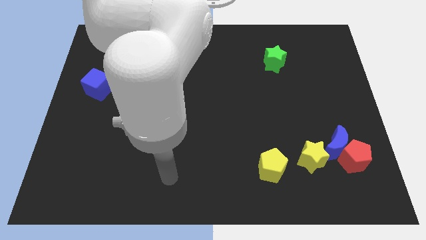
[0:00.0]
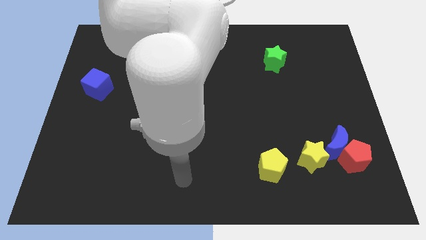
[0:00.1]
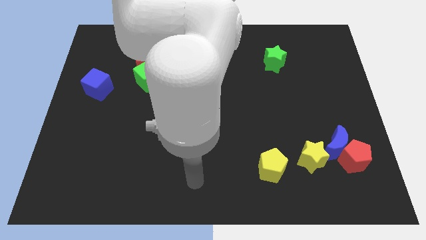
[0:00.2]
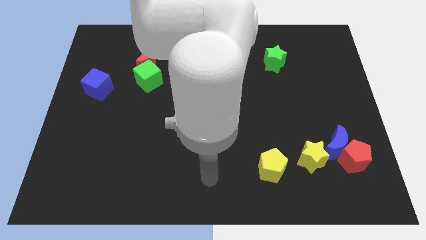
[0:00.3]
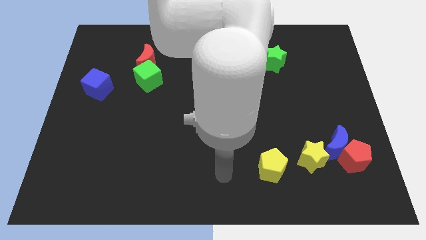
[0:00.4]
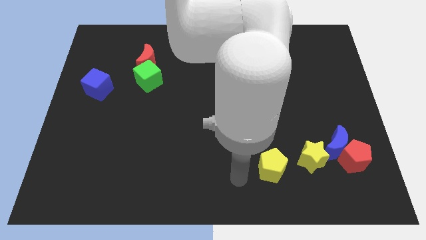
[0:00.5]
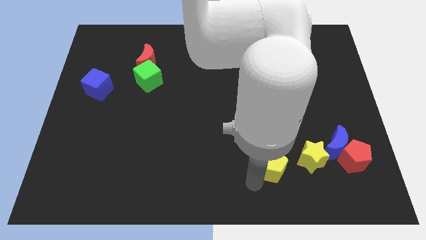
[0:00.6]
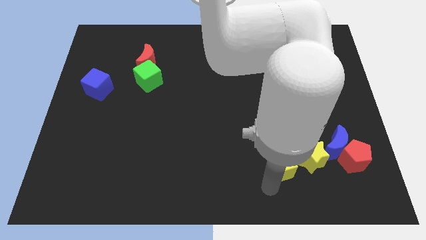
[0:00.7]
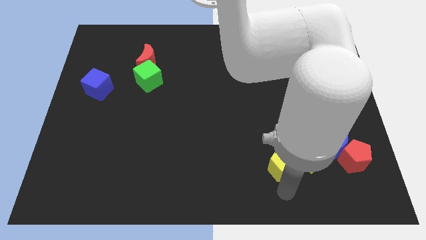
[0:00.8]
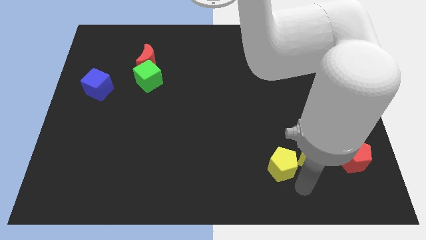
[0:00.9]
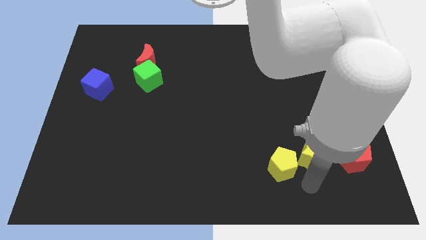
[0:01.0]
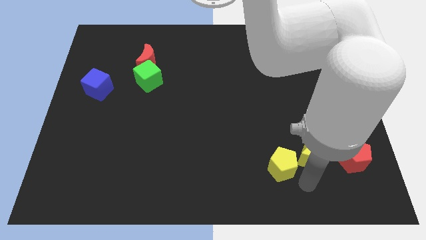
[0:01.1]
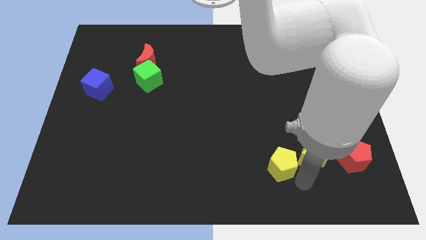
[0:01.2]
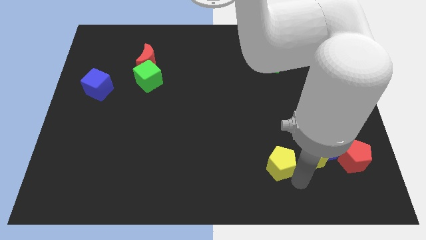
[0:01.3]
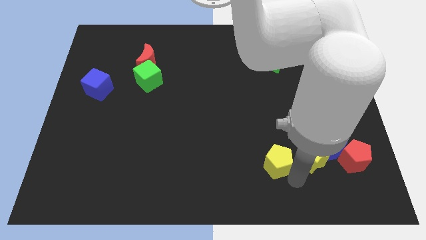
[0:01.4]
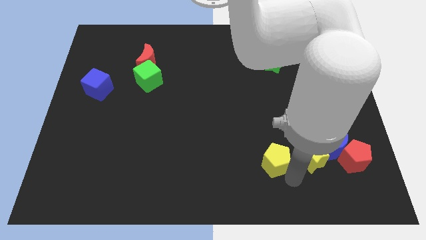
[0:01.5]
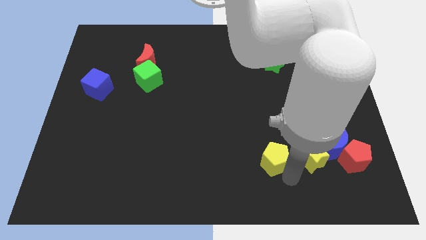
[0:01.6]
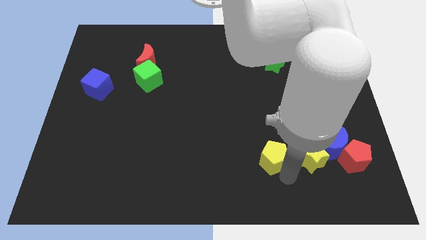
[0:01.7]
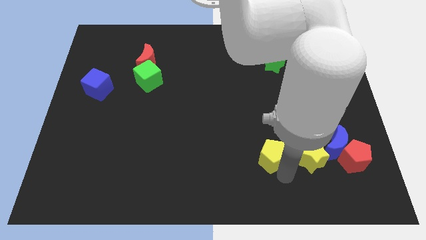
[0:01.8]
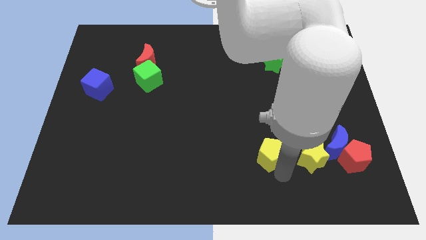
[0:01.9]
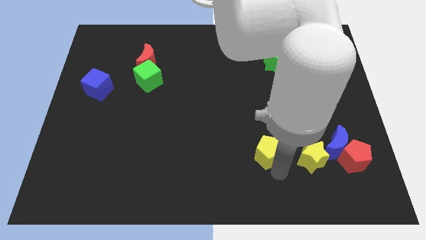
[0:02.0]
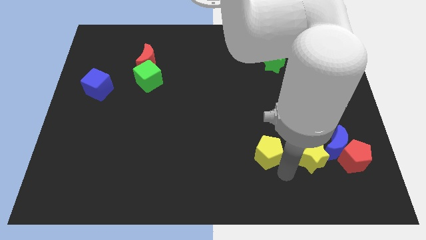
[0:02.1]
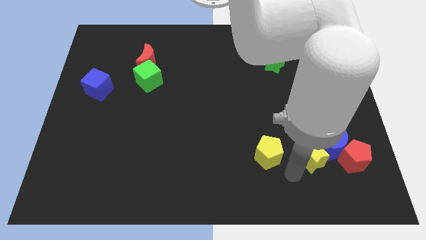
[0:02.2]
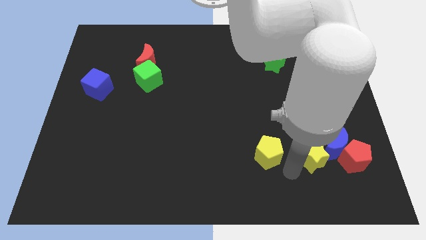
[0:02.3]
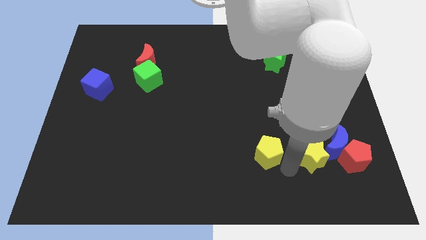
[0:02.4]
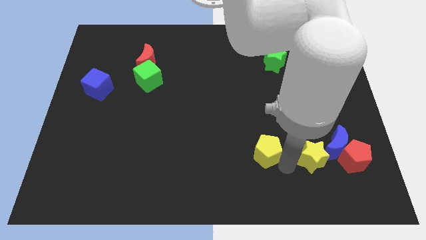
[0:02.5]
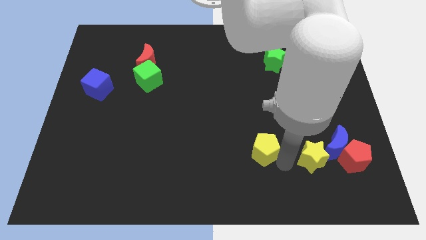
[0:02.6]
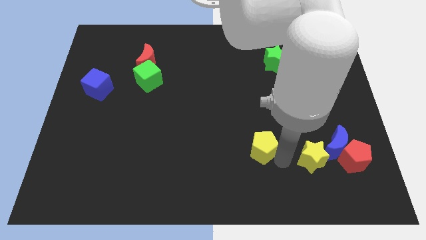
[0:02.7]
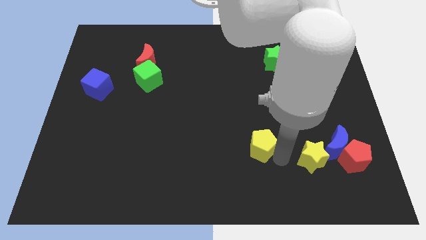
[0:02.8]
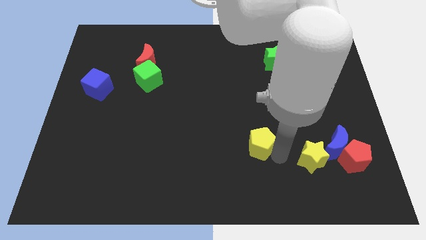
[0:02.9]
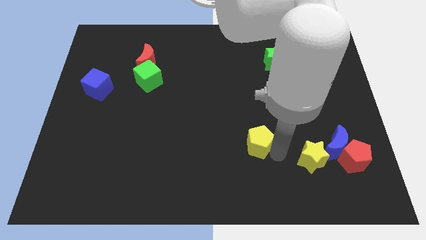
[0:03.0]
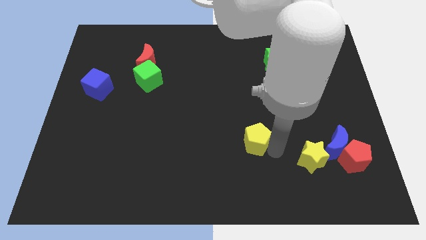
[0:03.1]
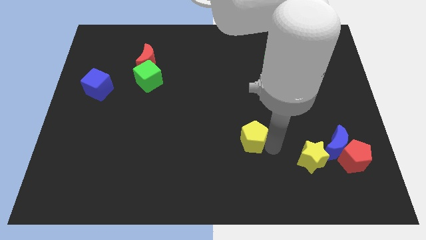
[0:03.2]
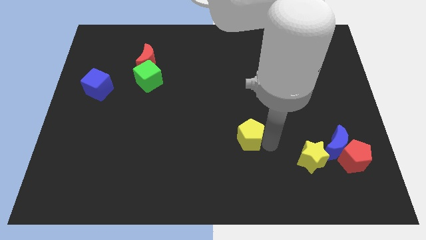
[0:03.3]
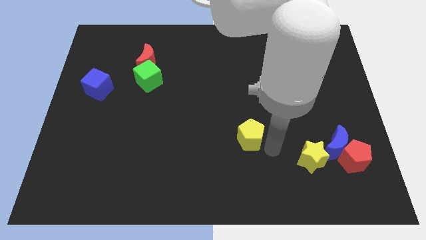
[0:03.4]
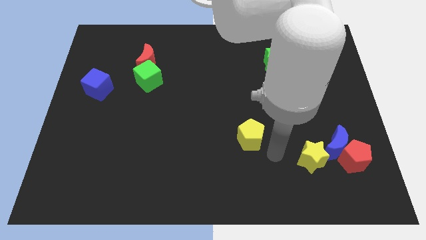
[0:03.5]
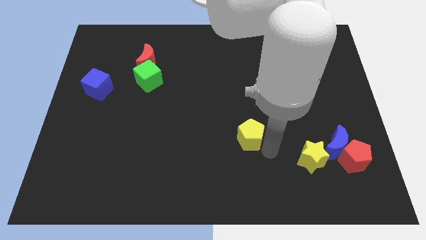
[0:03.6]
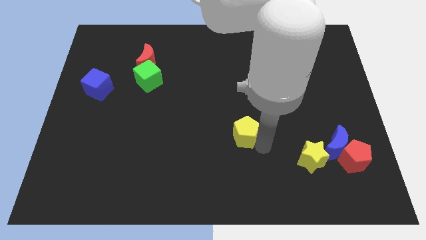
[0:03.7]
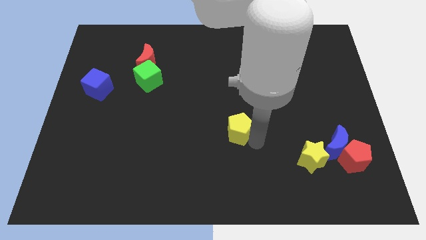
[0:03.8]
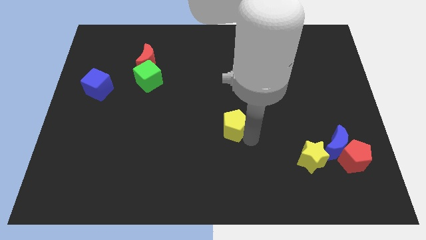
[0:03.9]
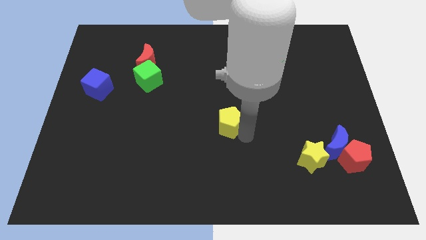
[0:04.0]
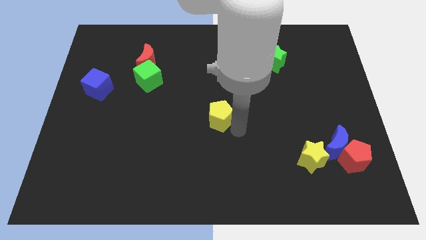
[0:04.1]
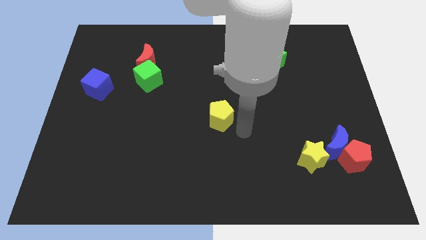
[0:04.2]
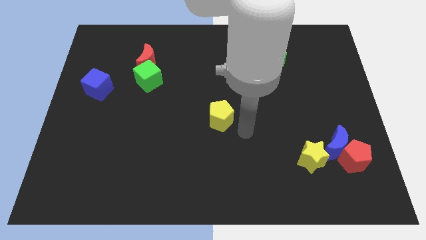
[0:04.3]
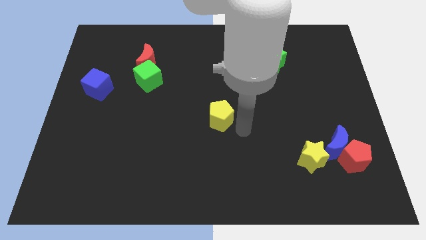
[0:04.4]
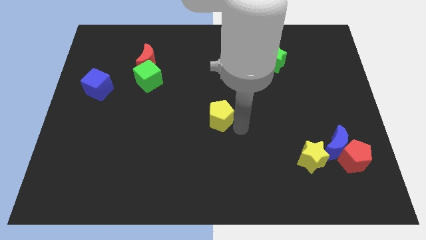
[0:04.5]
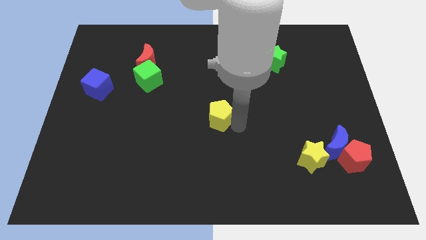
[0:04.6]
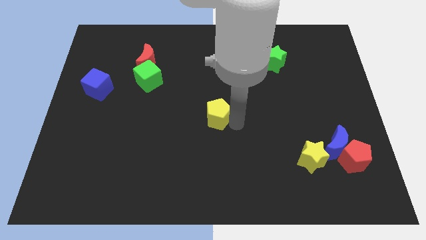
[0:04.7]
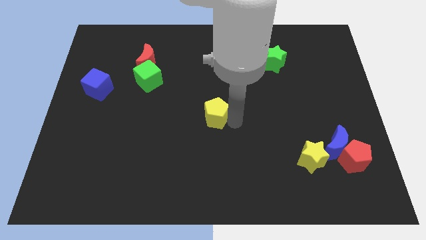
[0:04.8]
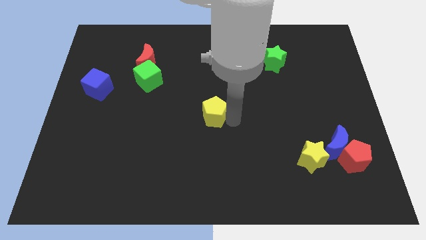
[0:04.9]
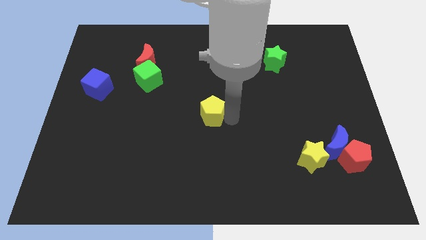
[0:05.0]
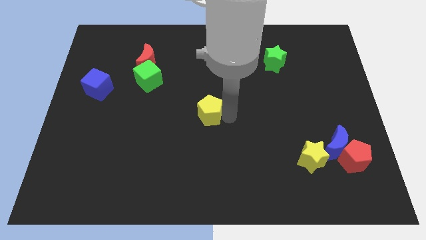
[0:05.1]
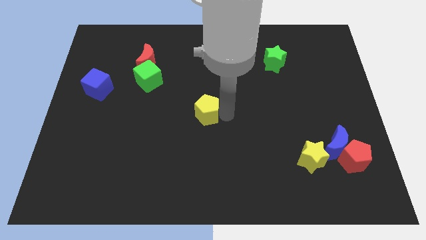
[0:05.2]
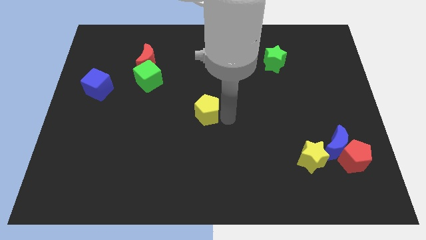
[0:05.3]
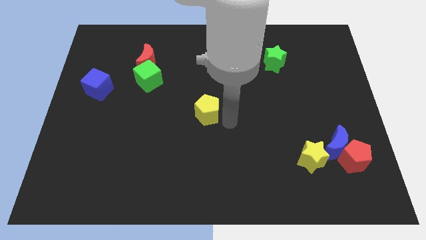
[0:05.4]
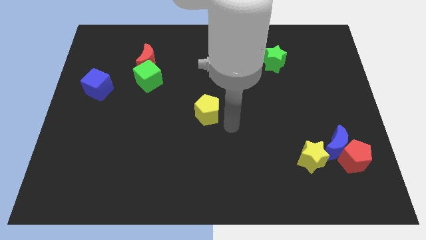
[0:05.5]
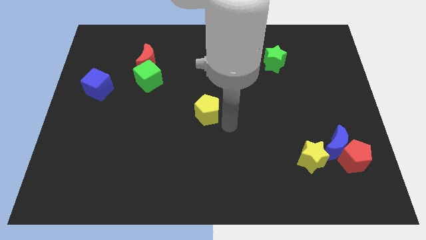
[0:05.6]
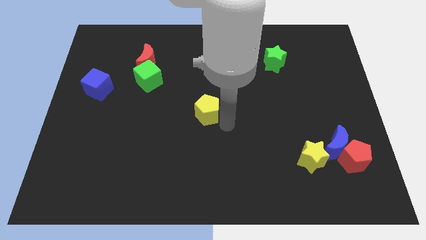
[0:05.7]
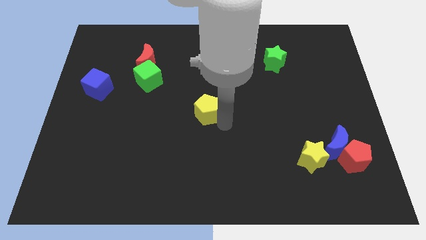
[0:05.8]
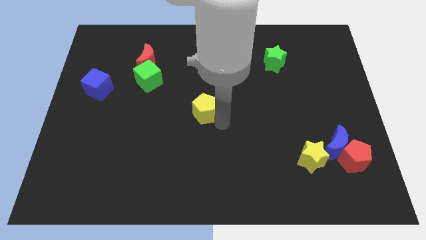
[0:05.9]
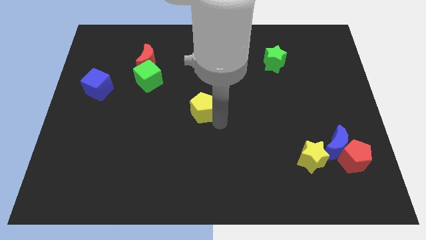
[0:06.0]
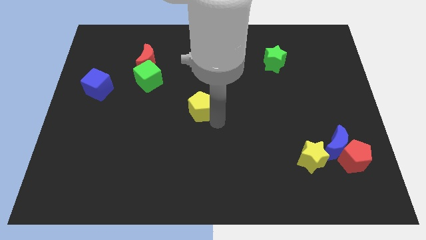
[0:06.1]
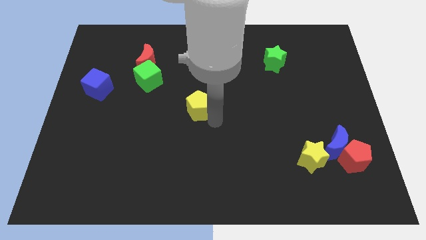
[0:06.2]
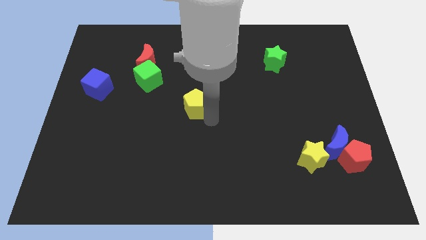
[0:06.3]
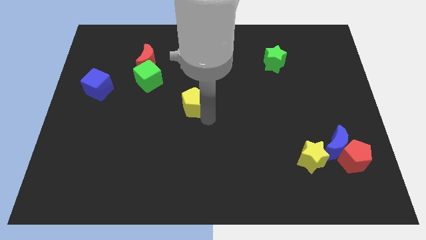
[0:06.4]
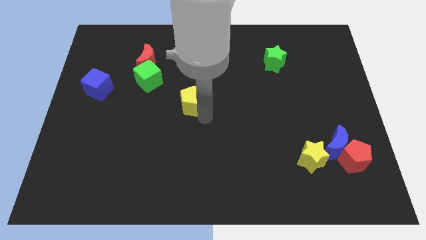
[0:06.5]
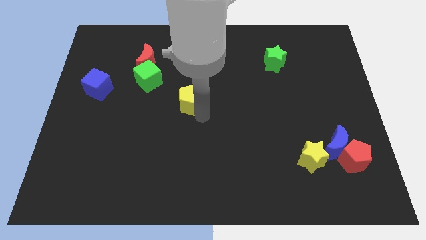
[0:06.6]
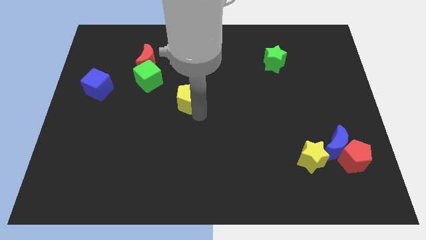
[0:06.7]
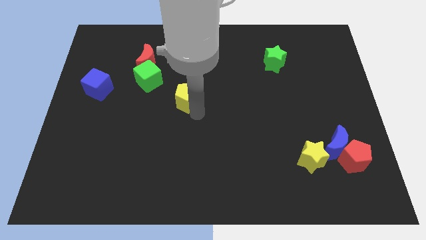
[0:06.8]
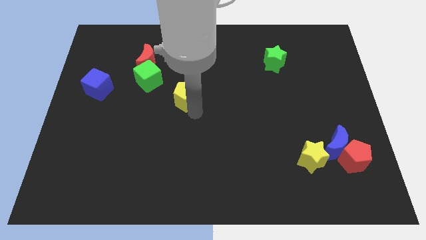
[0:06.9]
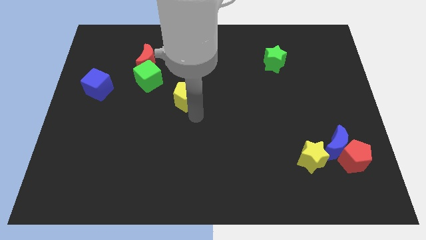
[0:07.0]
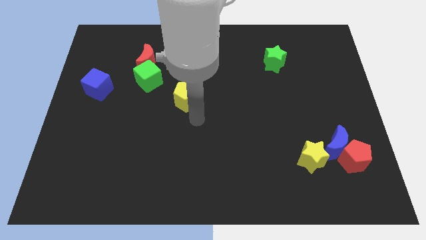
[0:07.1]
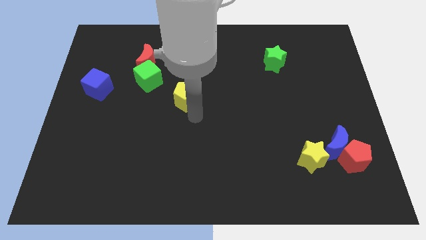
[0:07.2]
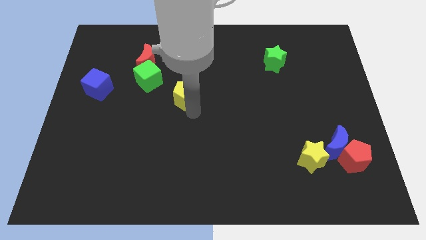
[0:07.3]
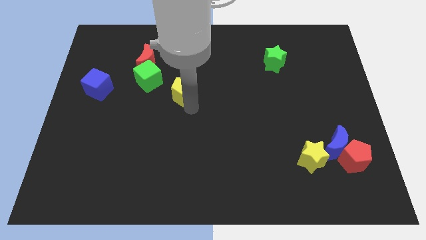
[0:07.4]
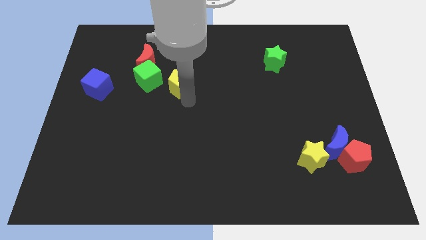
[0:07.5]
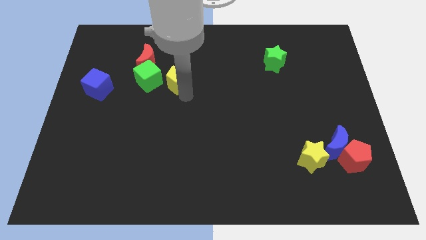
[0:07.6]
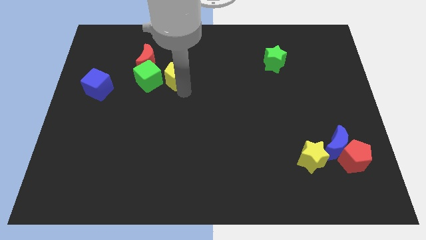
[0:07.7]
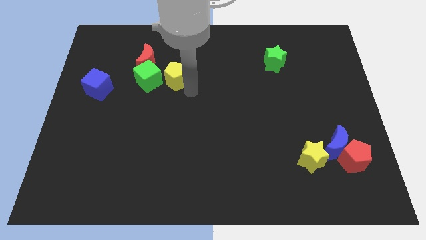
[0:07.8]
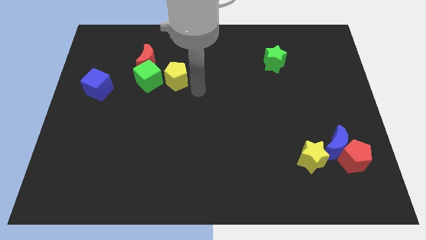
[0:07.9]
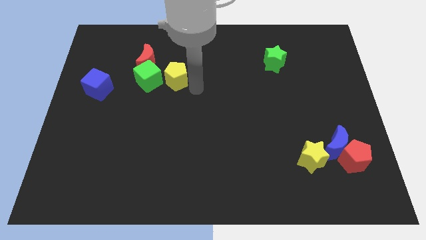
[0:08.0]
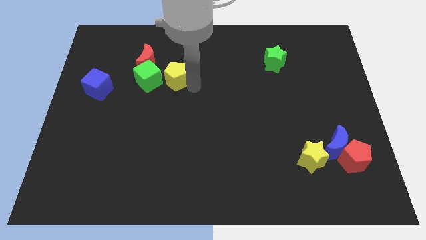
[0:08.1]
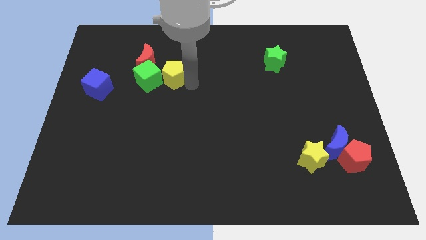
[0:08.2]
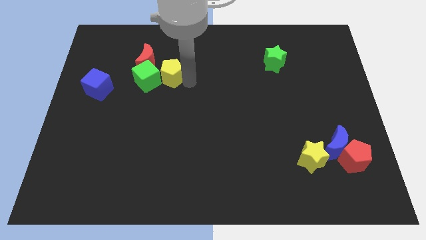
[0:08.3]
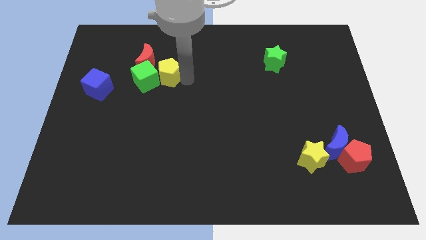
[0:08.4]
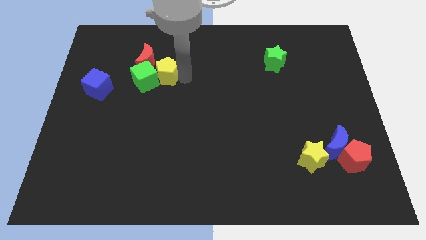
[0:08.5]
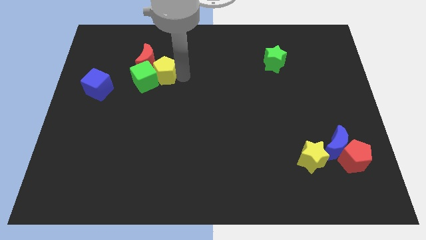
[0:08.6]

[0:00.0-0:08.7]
slide the yellow pentagon towards the red moon
